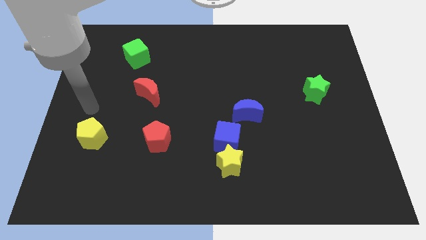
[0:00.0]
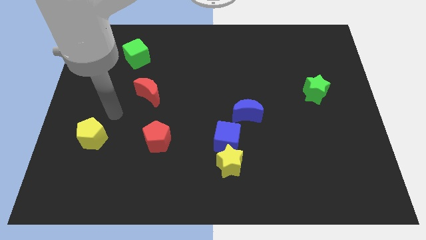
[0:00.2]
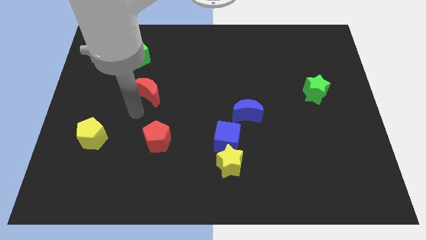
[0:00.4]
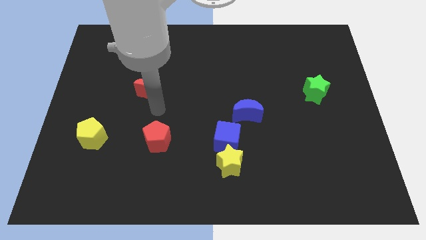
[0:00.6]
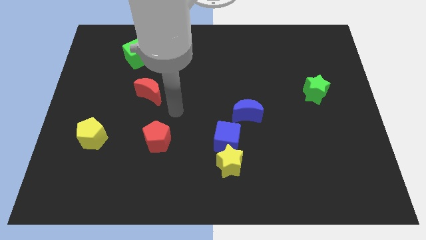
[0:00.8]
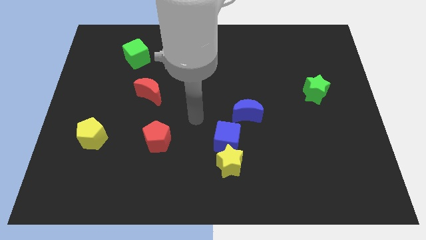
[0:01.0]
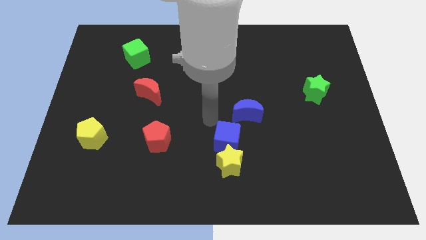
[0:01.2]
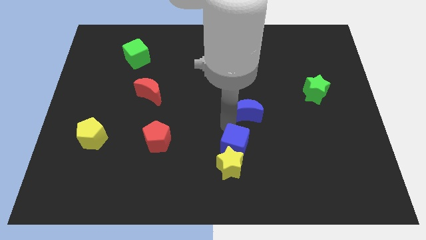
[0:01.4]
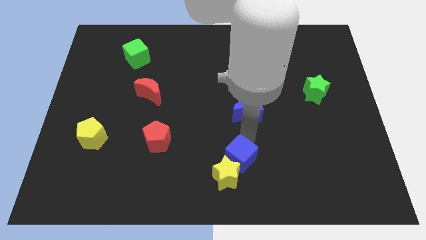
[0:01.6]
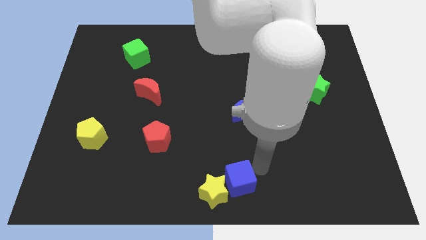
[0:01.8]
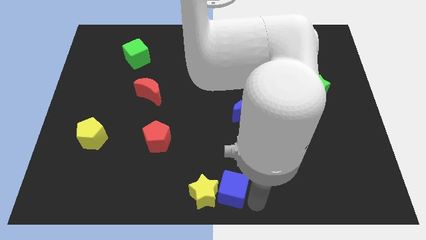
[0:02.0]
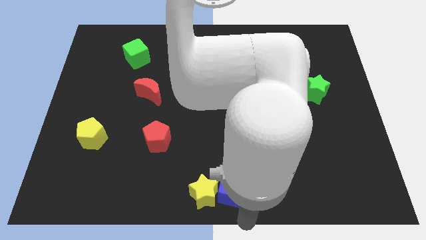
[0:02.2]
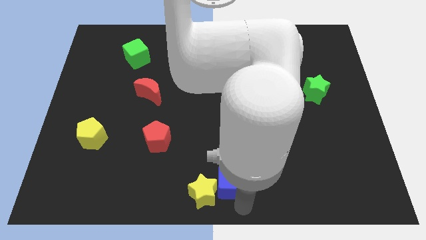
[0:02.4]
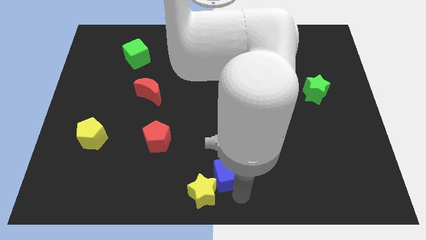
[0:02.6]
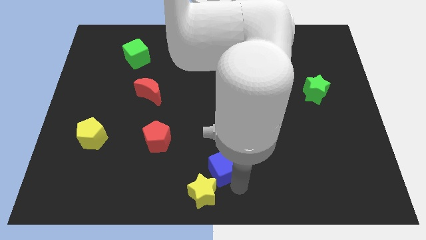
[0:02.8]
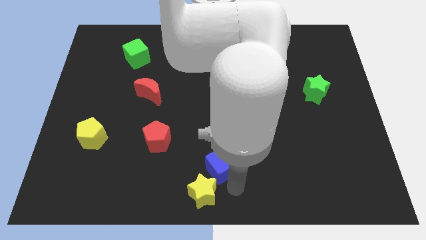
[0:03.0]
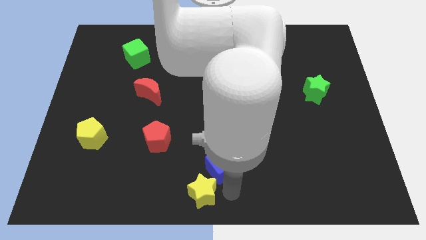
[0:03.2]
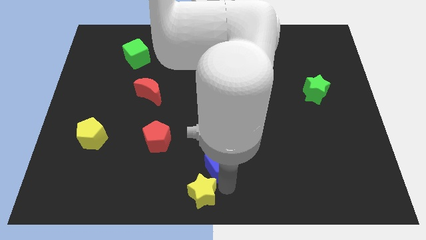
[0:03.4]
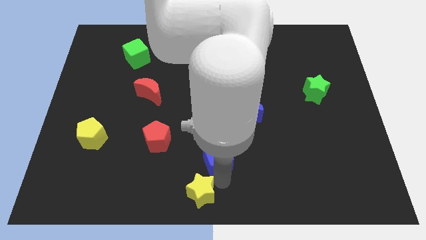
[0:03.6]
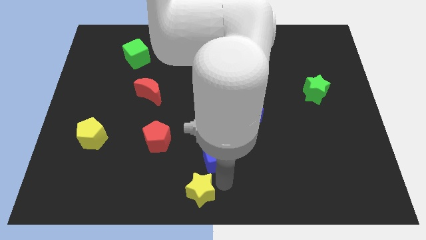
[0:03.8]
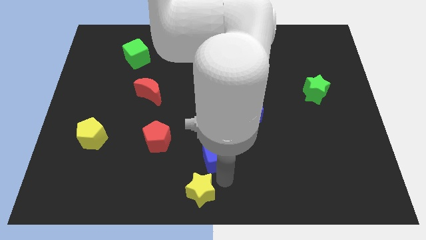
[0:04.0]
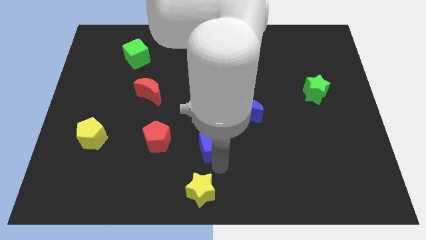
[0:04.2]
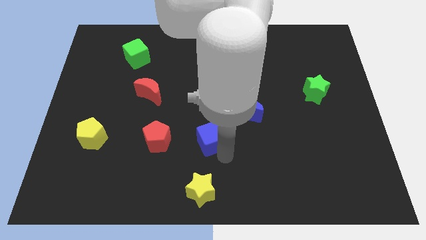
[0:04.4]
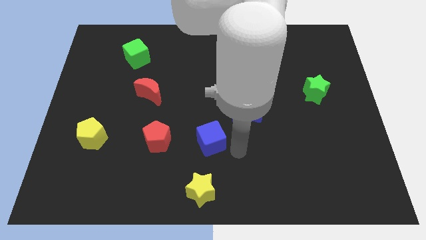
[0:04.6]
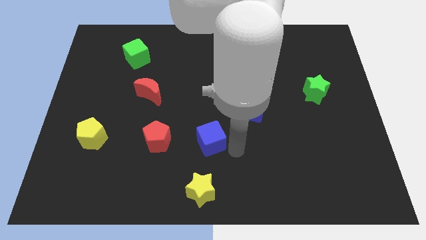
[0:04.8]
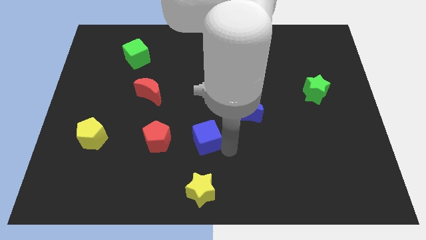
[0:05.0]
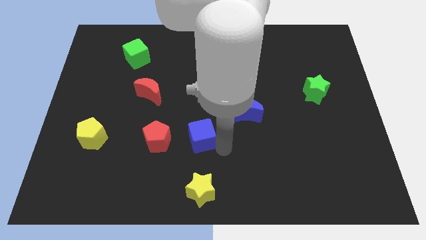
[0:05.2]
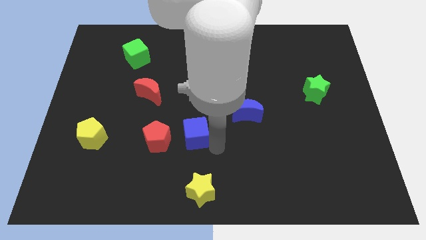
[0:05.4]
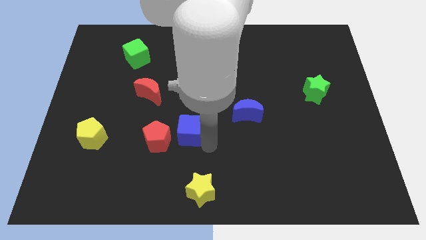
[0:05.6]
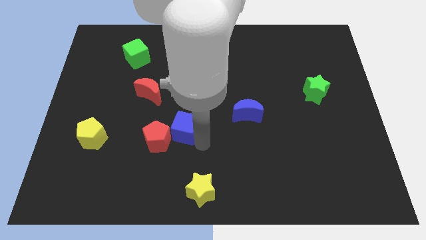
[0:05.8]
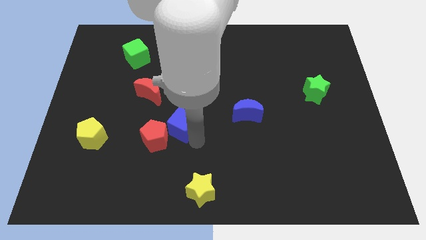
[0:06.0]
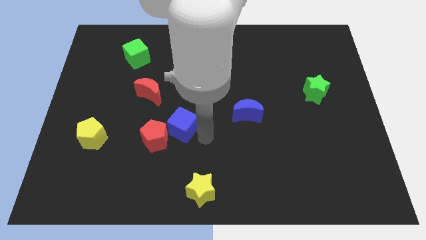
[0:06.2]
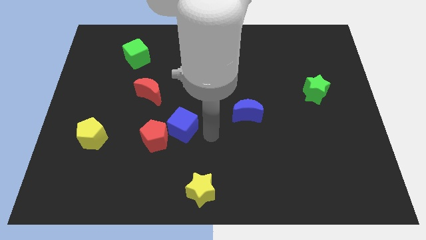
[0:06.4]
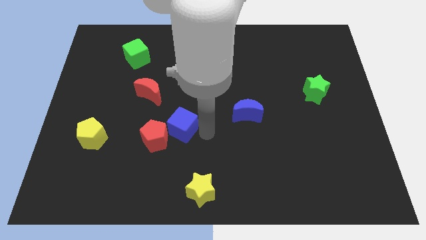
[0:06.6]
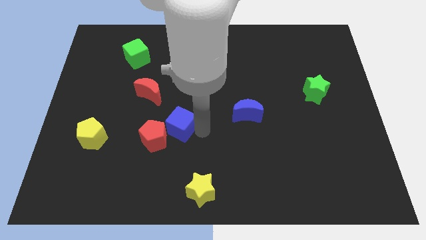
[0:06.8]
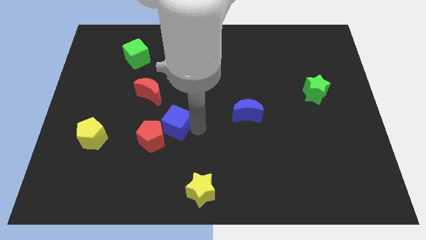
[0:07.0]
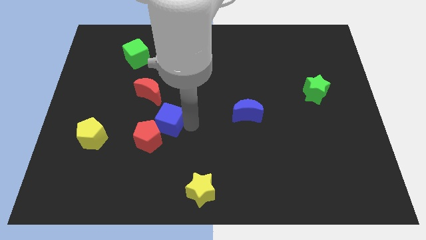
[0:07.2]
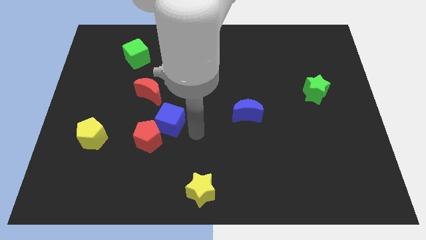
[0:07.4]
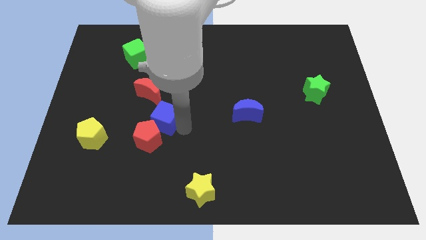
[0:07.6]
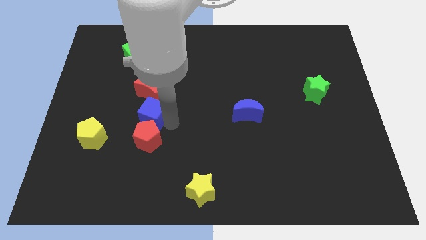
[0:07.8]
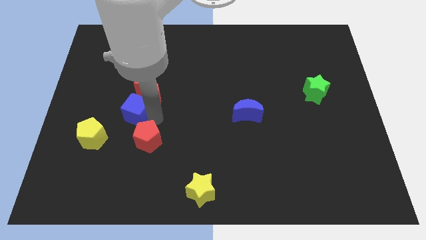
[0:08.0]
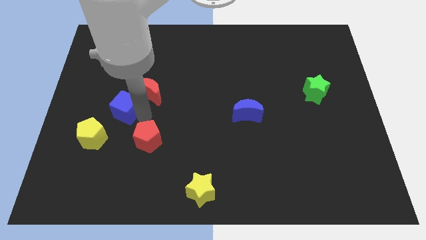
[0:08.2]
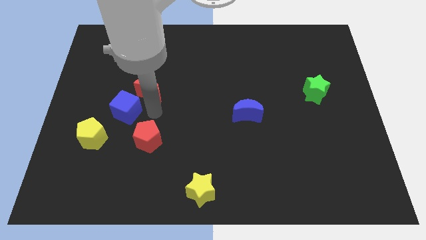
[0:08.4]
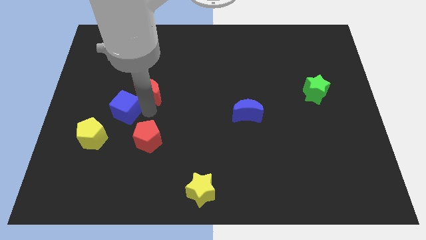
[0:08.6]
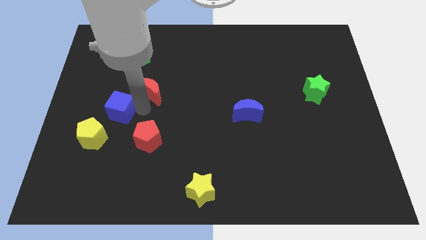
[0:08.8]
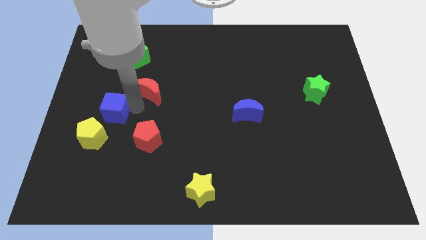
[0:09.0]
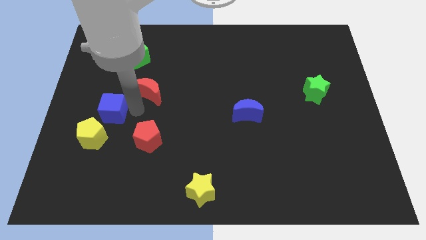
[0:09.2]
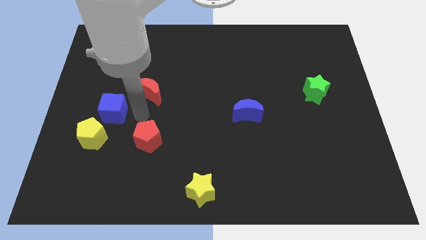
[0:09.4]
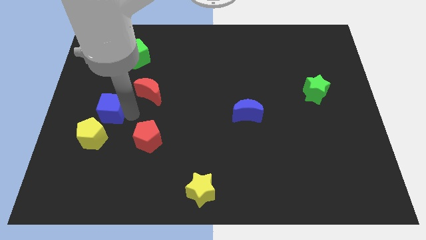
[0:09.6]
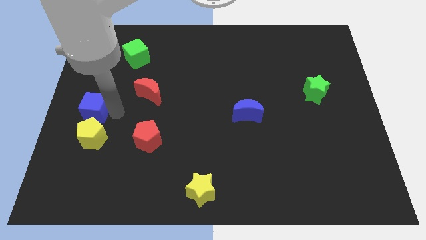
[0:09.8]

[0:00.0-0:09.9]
move the blue cube to the left side
